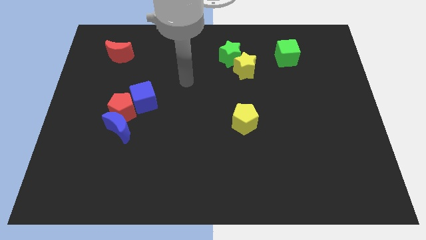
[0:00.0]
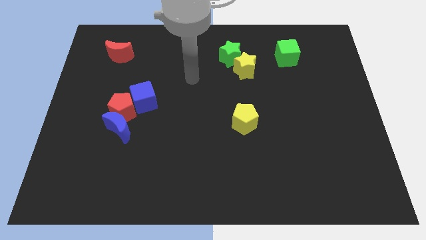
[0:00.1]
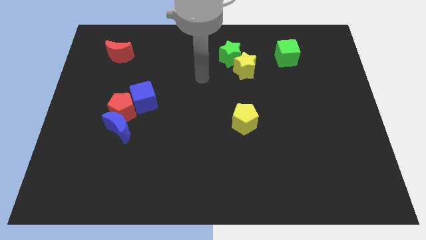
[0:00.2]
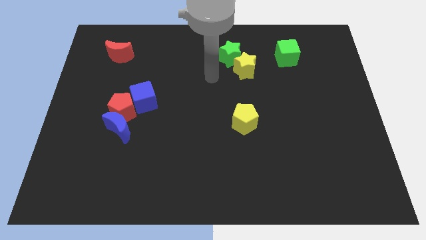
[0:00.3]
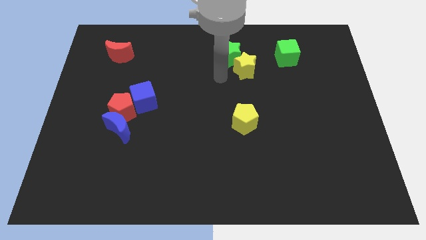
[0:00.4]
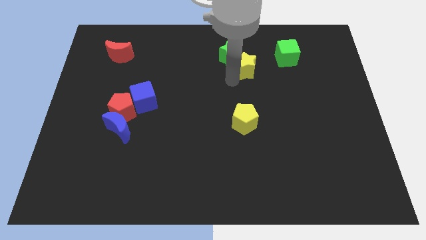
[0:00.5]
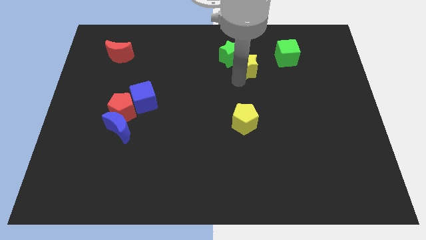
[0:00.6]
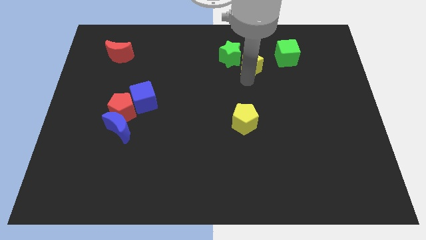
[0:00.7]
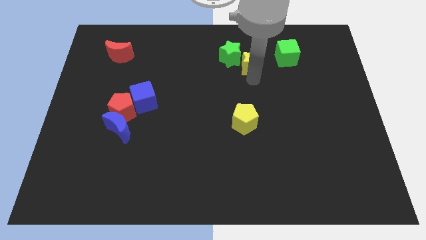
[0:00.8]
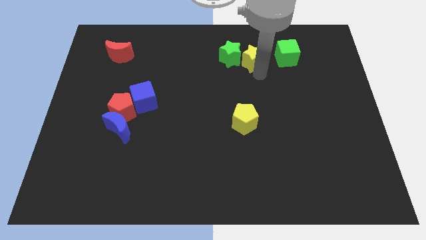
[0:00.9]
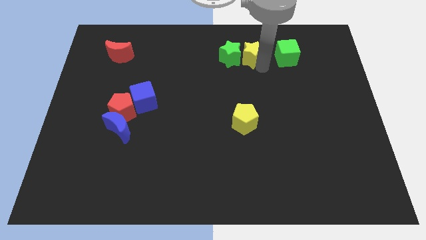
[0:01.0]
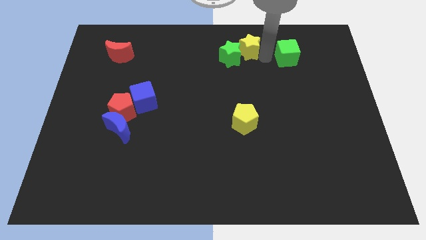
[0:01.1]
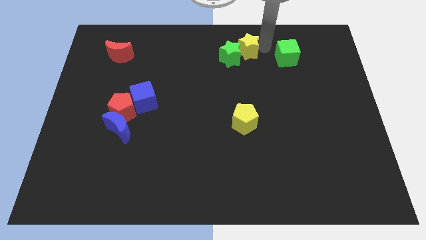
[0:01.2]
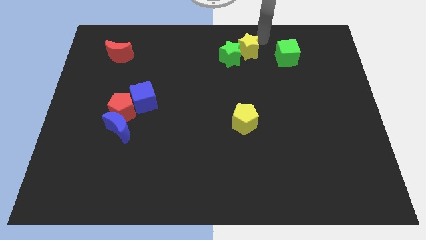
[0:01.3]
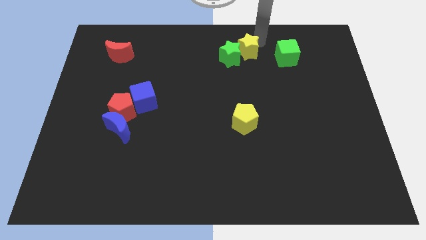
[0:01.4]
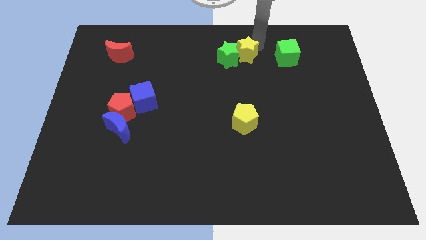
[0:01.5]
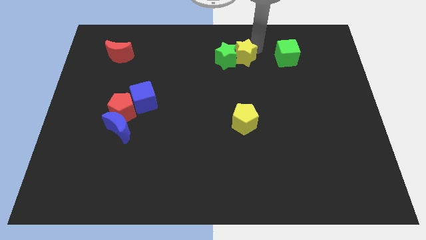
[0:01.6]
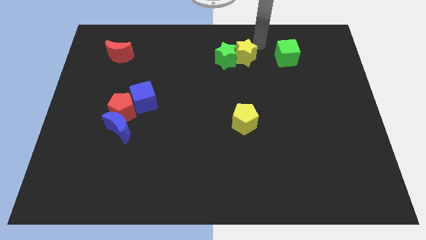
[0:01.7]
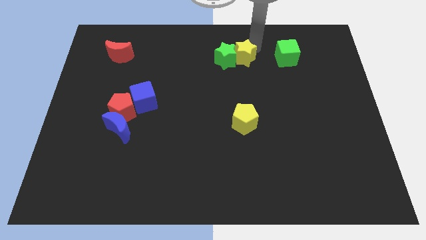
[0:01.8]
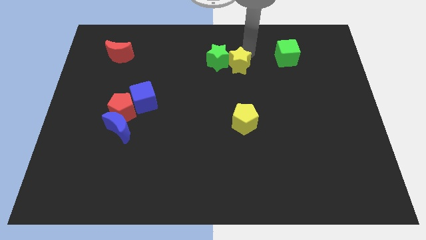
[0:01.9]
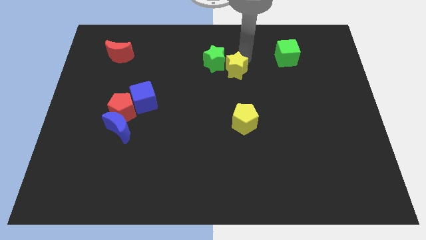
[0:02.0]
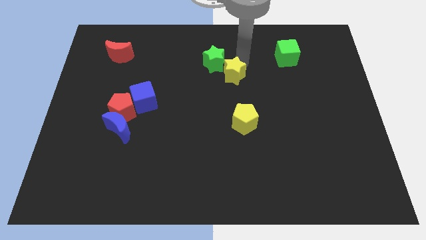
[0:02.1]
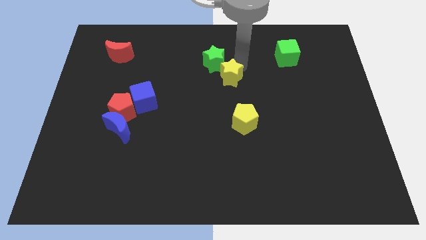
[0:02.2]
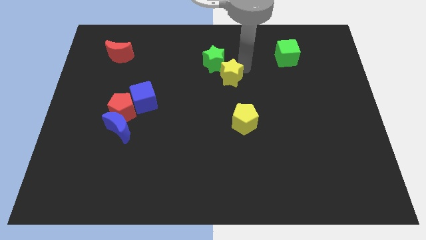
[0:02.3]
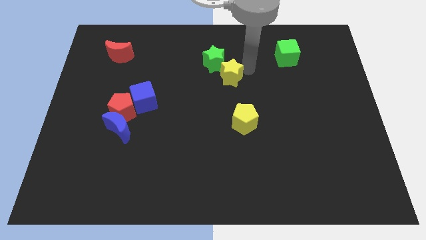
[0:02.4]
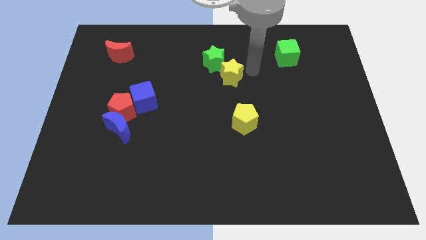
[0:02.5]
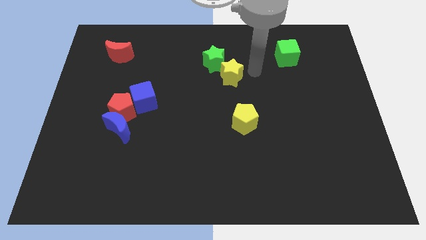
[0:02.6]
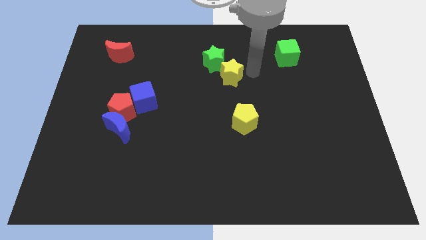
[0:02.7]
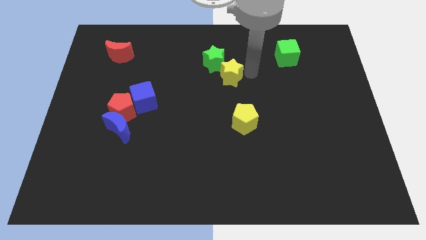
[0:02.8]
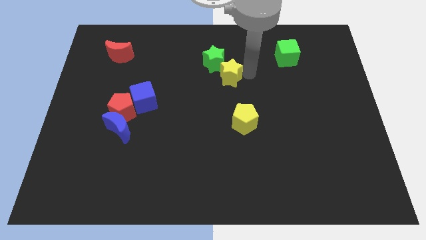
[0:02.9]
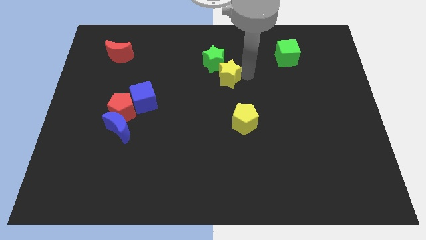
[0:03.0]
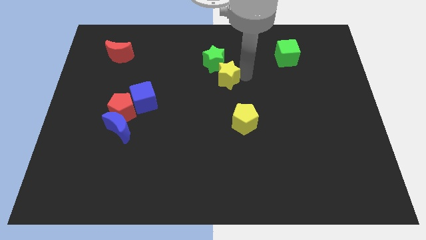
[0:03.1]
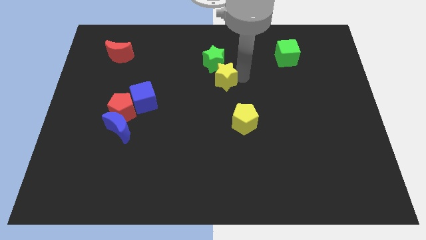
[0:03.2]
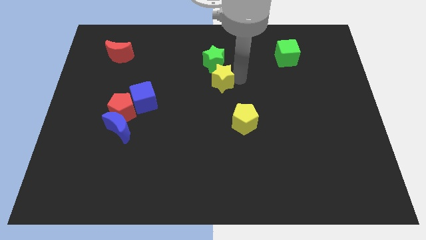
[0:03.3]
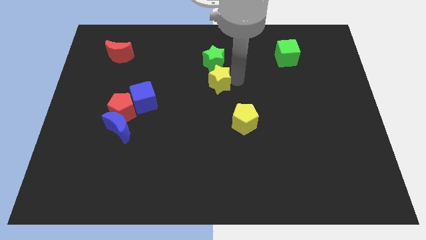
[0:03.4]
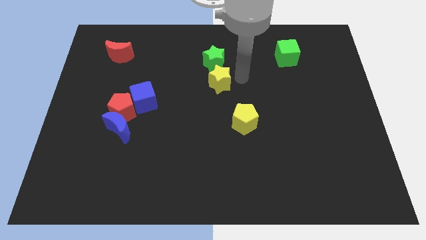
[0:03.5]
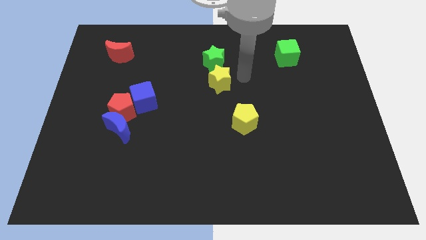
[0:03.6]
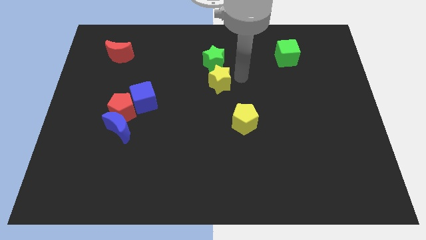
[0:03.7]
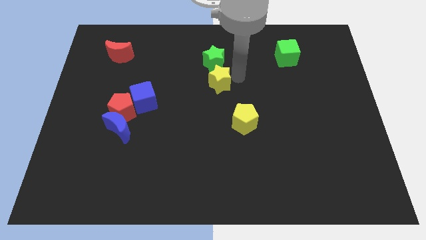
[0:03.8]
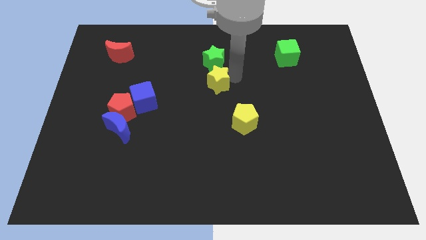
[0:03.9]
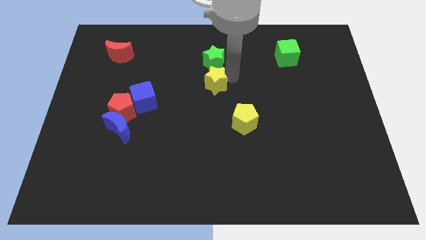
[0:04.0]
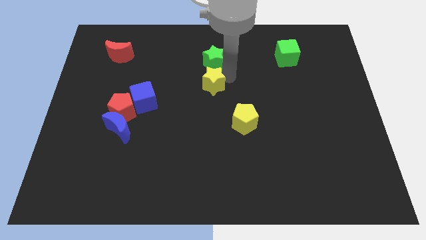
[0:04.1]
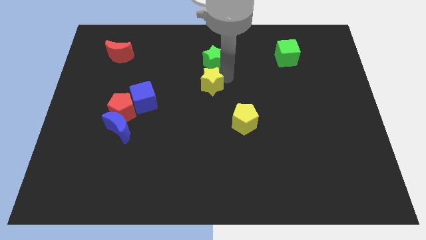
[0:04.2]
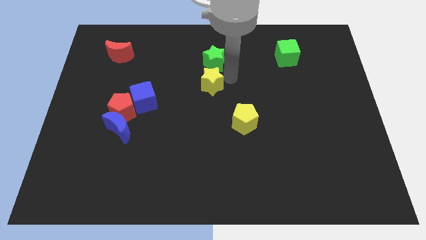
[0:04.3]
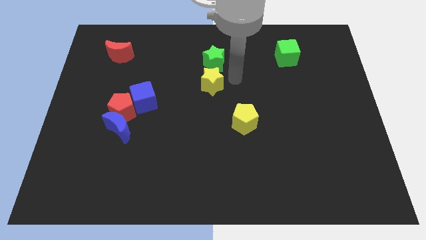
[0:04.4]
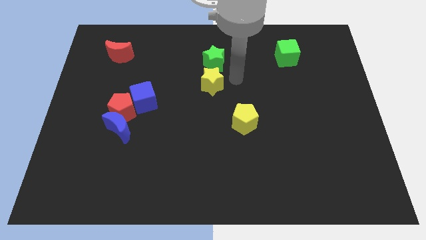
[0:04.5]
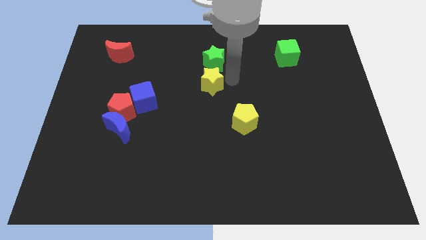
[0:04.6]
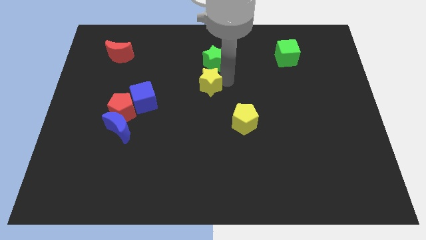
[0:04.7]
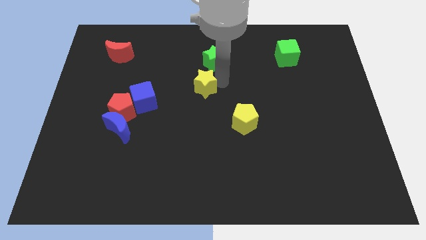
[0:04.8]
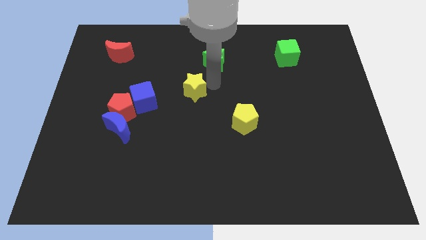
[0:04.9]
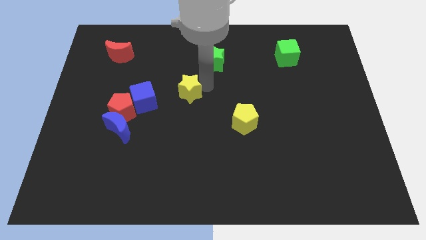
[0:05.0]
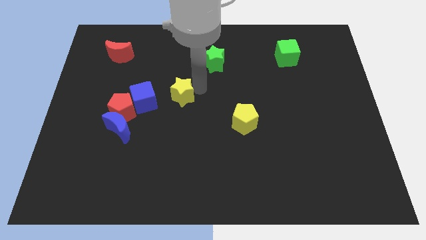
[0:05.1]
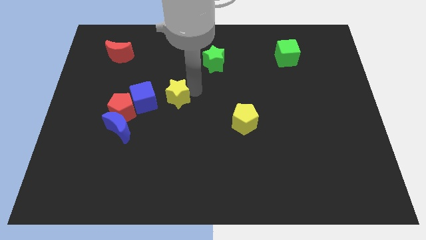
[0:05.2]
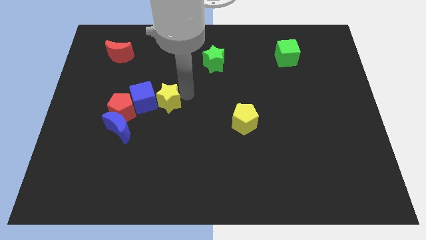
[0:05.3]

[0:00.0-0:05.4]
slide the yellow star towards the blue cube

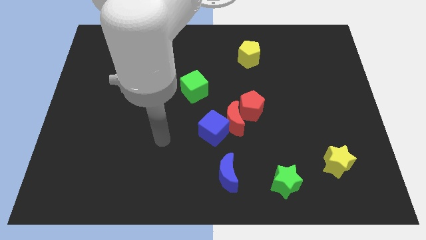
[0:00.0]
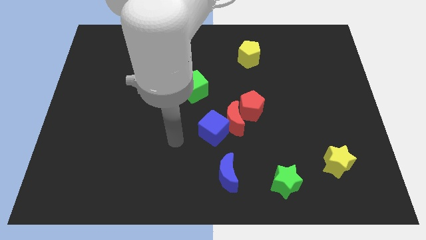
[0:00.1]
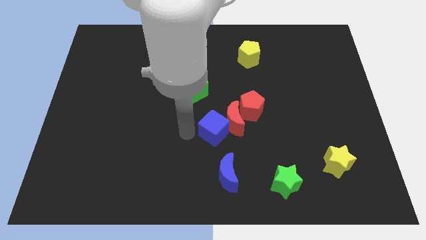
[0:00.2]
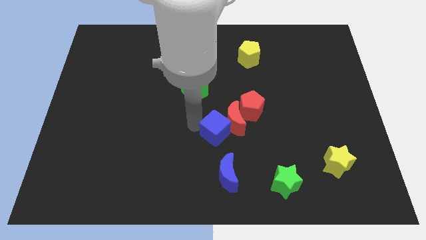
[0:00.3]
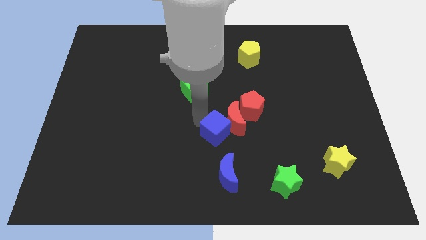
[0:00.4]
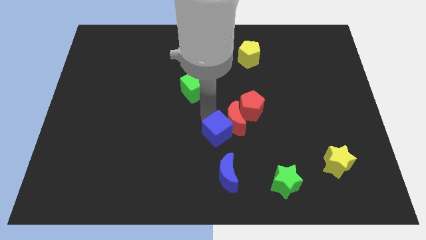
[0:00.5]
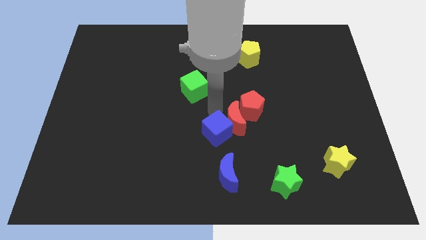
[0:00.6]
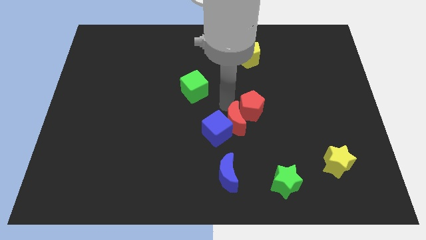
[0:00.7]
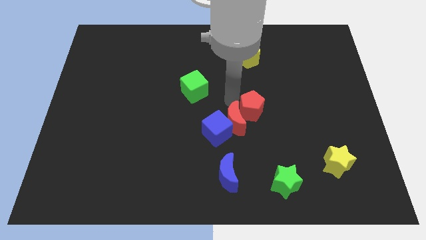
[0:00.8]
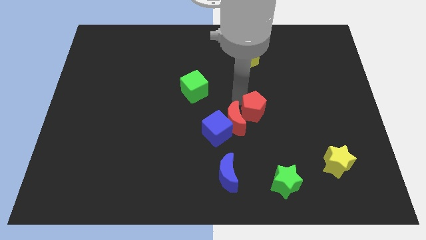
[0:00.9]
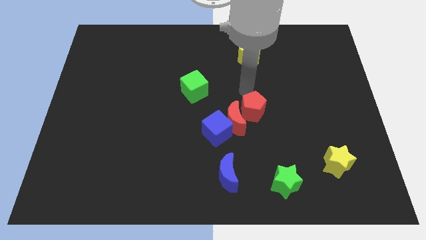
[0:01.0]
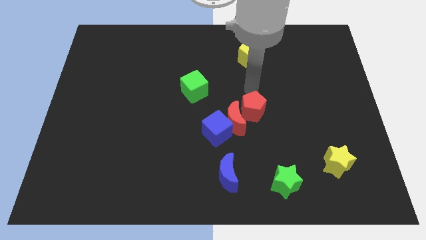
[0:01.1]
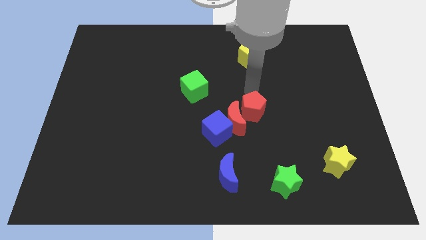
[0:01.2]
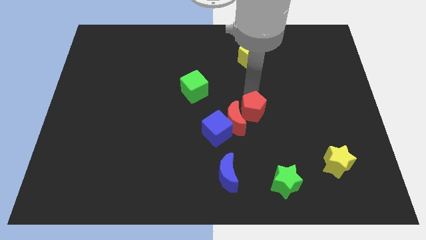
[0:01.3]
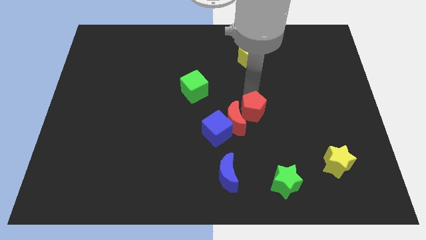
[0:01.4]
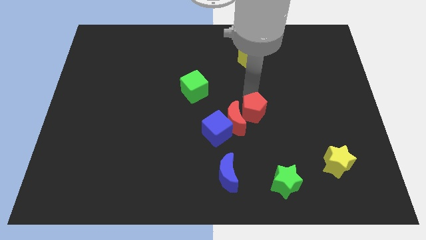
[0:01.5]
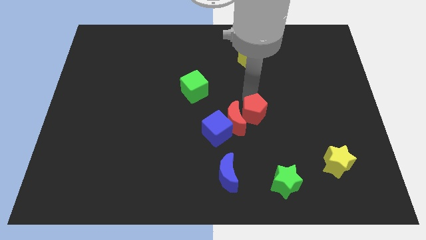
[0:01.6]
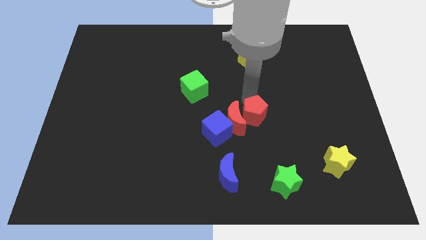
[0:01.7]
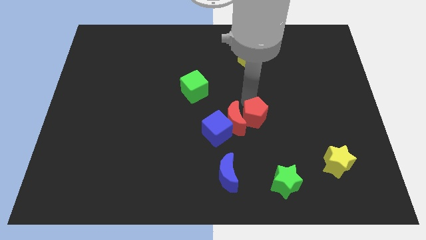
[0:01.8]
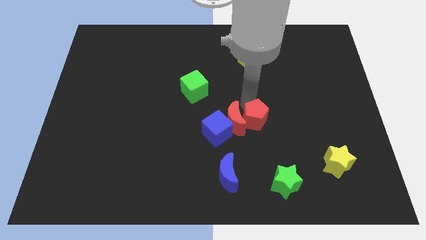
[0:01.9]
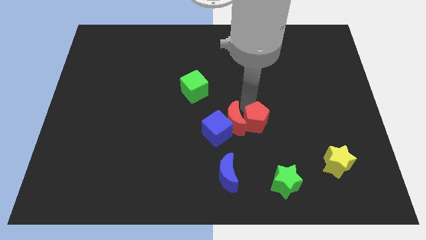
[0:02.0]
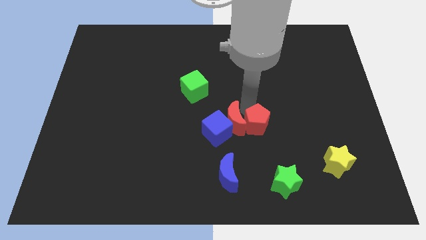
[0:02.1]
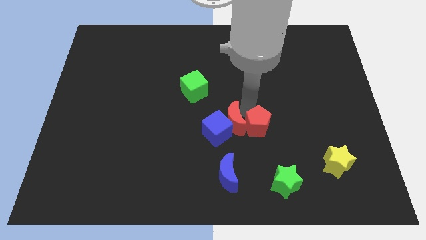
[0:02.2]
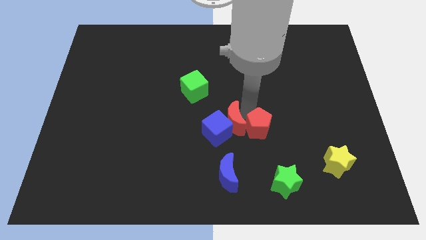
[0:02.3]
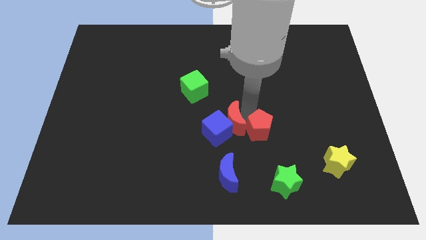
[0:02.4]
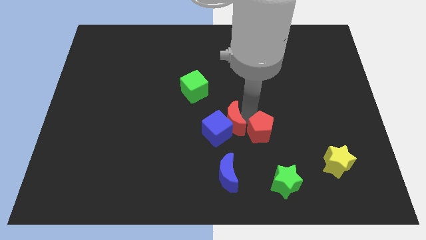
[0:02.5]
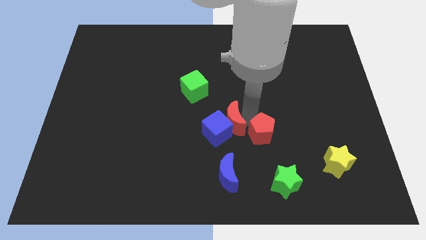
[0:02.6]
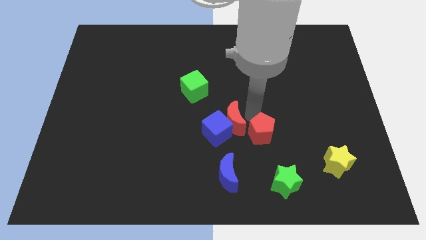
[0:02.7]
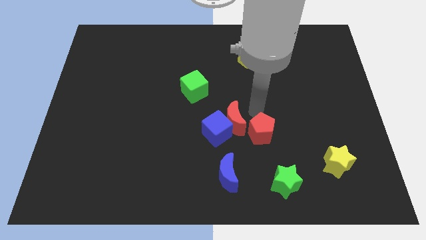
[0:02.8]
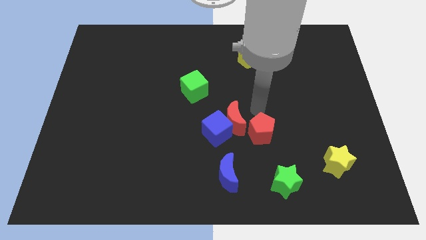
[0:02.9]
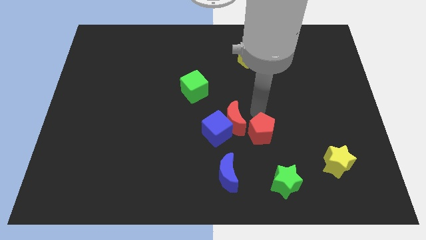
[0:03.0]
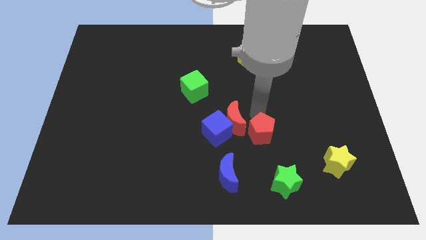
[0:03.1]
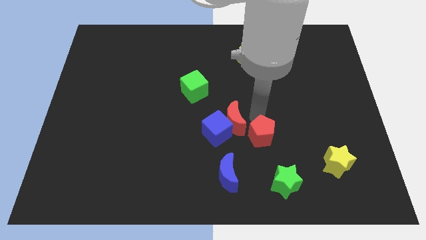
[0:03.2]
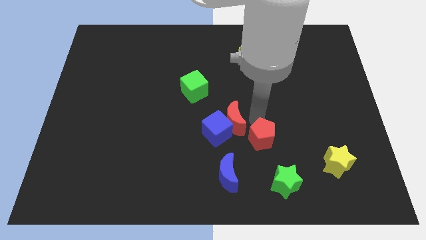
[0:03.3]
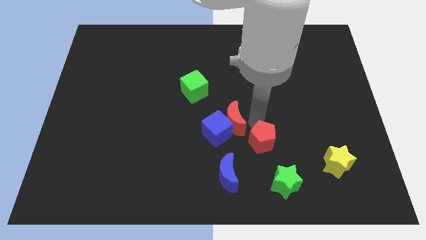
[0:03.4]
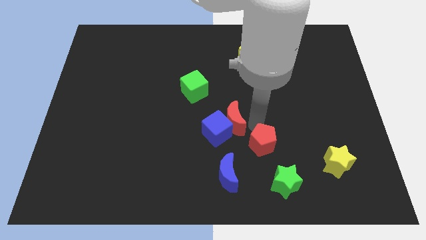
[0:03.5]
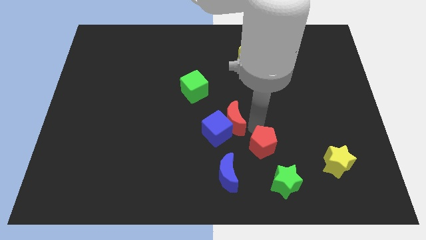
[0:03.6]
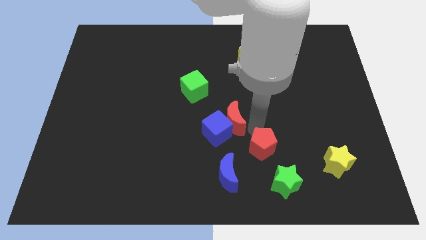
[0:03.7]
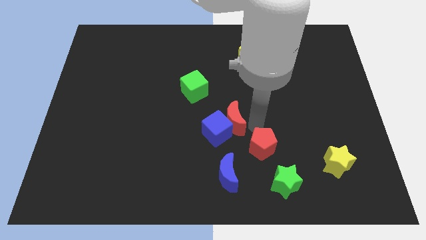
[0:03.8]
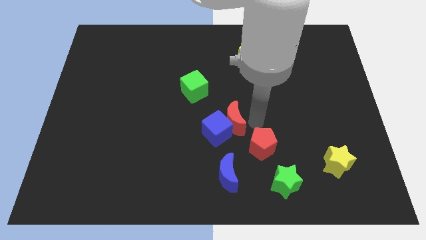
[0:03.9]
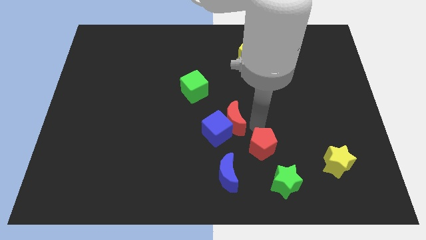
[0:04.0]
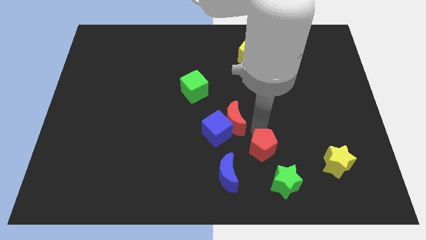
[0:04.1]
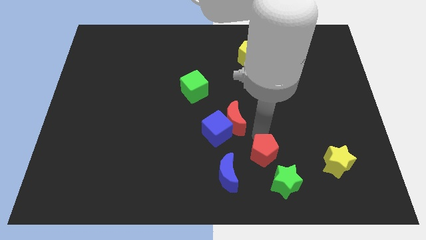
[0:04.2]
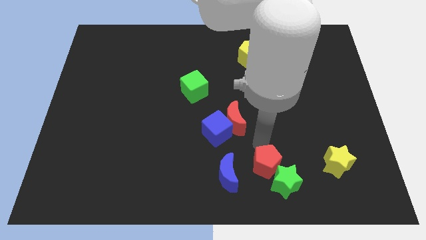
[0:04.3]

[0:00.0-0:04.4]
slide the red pentagon to the green star
